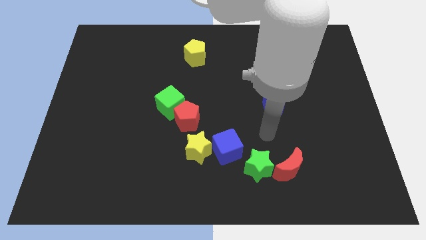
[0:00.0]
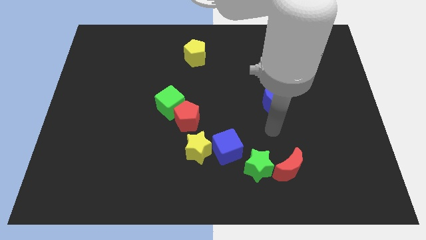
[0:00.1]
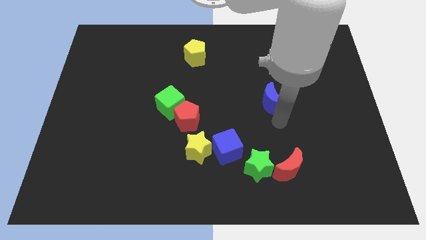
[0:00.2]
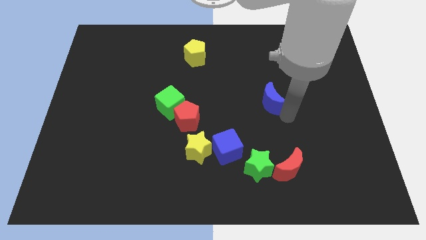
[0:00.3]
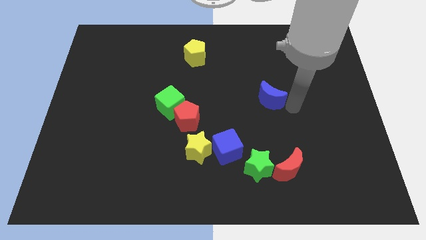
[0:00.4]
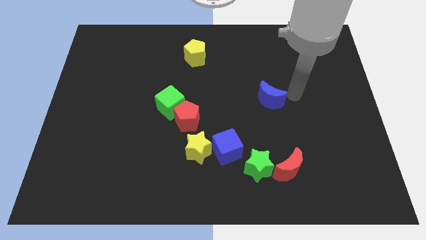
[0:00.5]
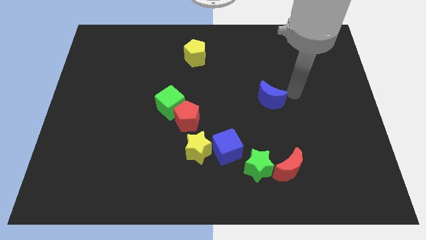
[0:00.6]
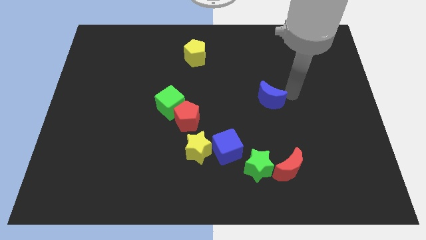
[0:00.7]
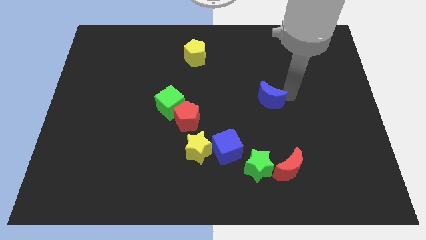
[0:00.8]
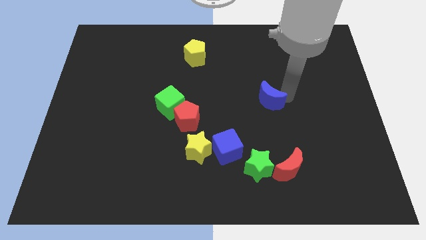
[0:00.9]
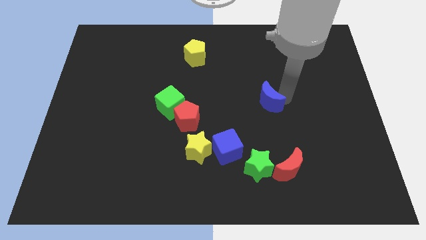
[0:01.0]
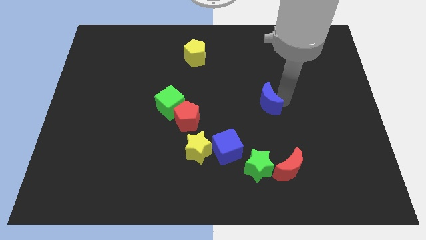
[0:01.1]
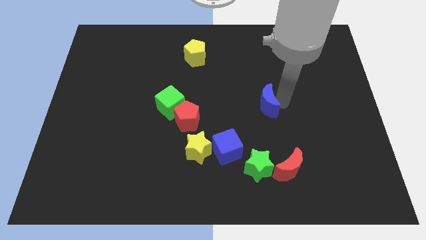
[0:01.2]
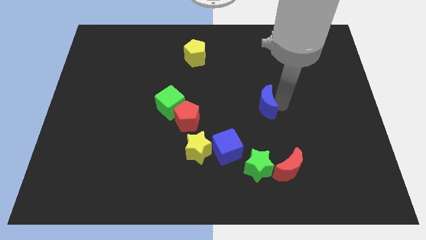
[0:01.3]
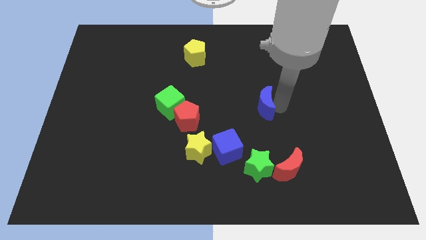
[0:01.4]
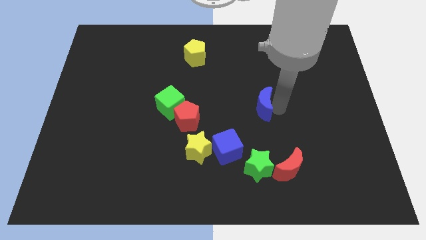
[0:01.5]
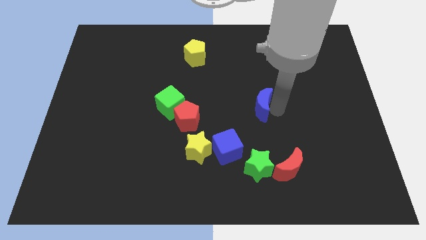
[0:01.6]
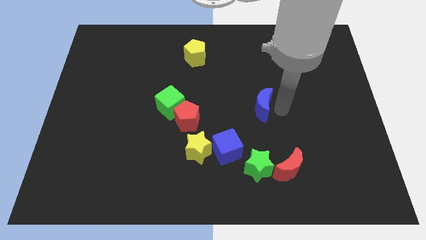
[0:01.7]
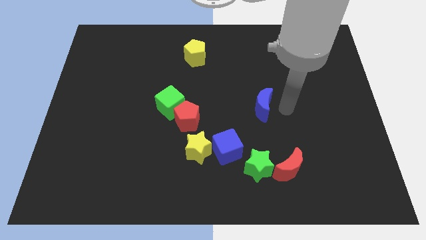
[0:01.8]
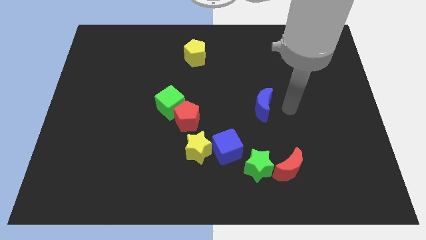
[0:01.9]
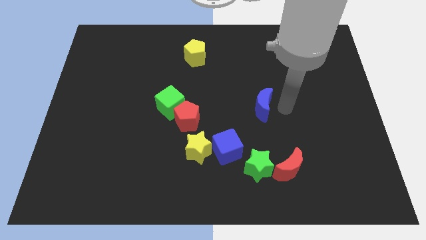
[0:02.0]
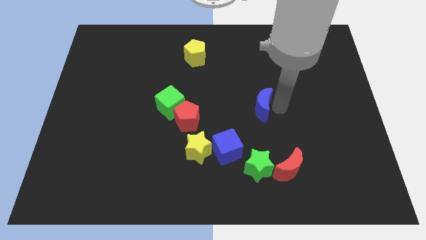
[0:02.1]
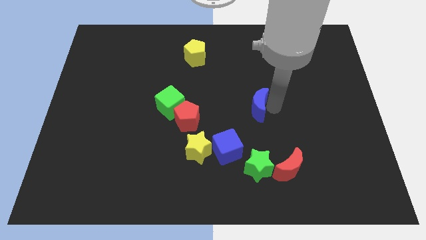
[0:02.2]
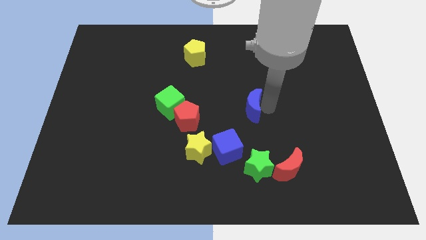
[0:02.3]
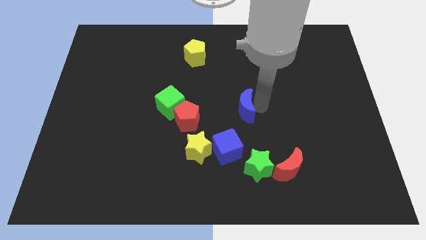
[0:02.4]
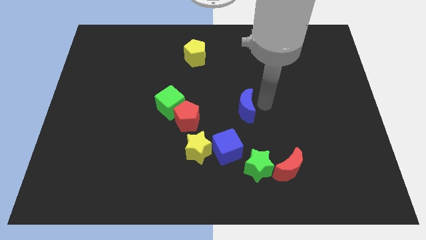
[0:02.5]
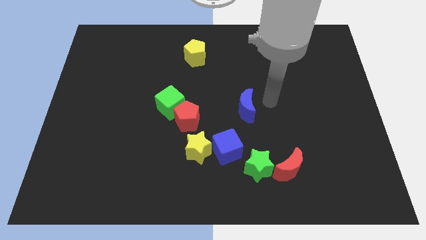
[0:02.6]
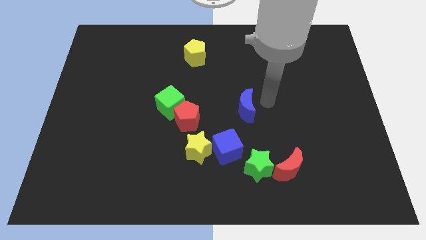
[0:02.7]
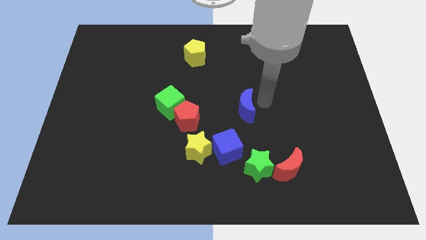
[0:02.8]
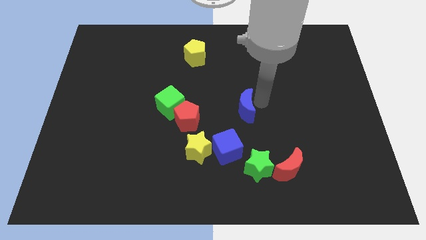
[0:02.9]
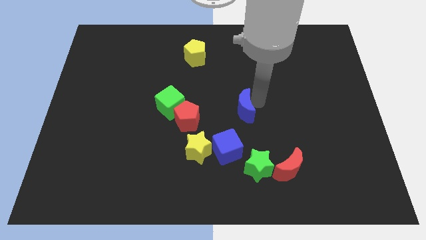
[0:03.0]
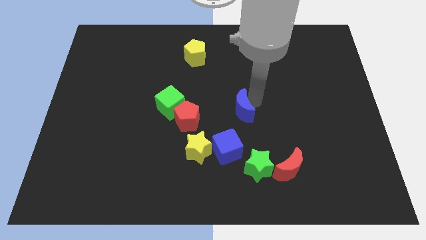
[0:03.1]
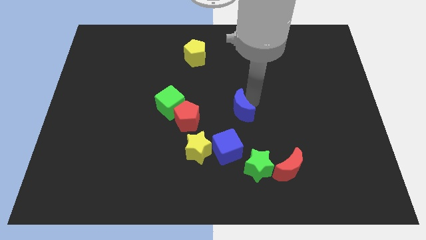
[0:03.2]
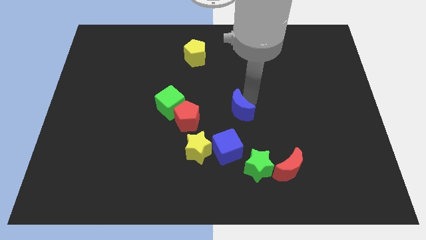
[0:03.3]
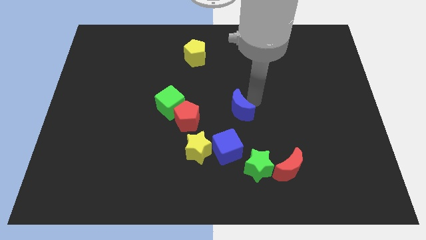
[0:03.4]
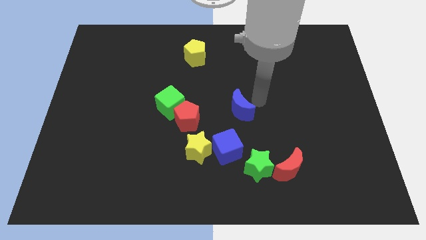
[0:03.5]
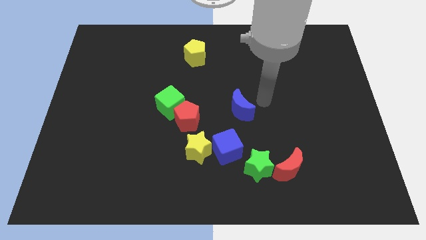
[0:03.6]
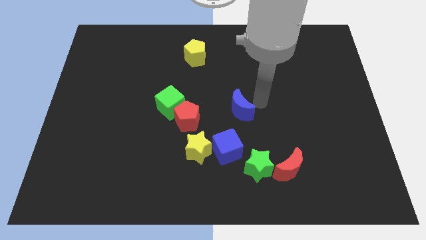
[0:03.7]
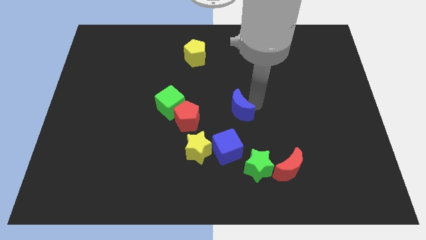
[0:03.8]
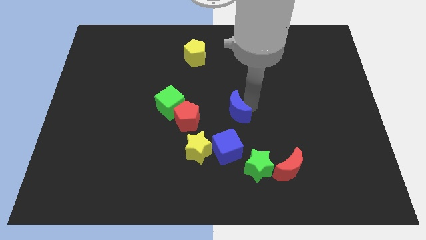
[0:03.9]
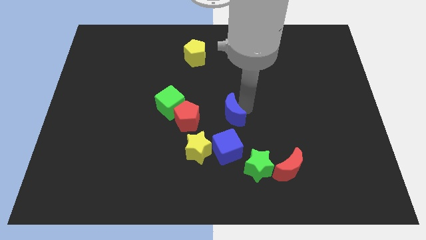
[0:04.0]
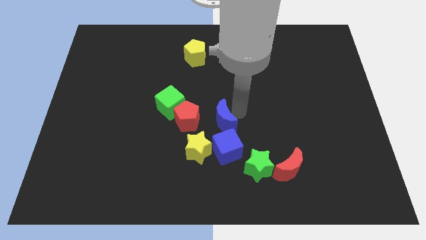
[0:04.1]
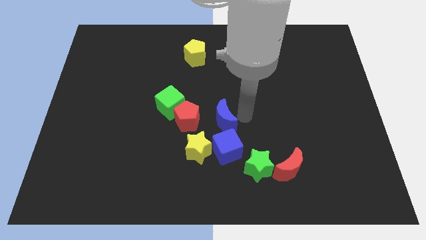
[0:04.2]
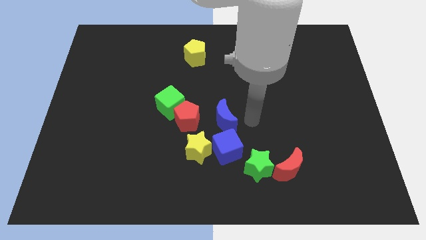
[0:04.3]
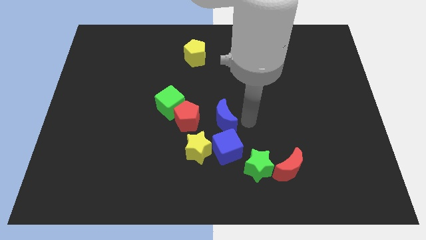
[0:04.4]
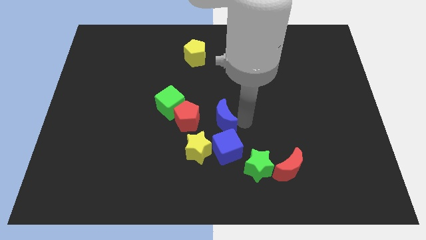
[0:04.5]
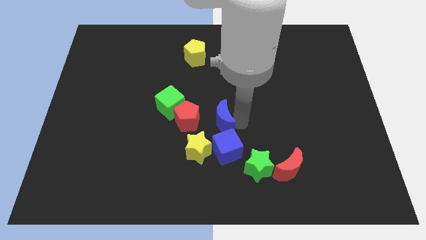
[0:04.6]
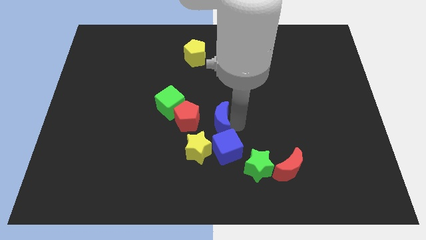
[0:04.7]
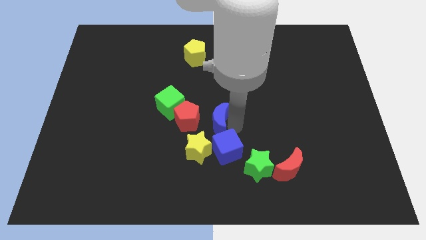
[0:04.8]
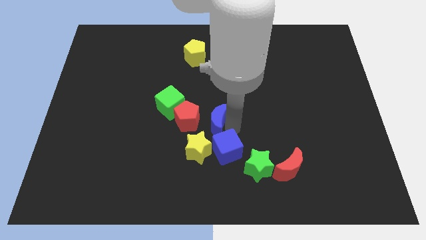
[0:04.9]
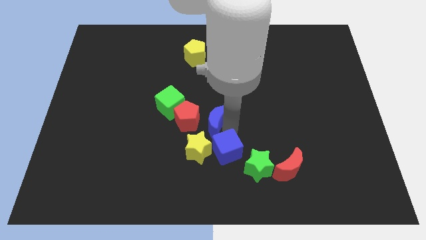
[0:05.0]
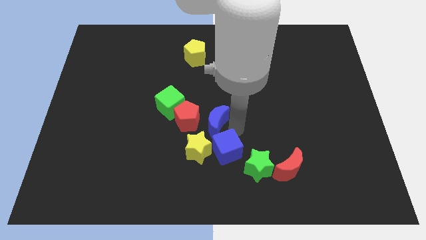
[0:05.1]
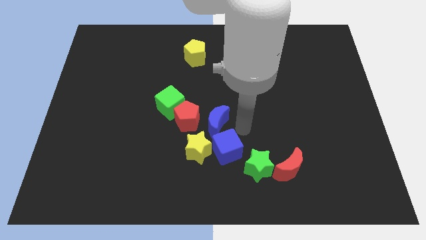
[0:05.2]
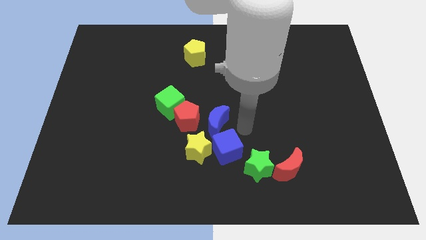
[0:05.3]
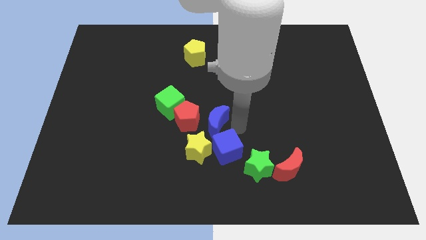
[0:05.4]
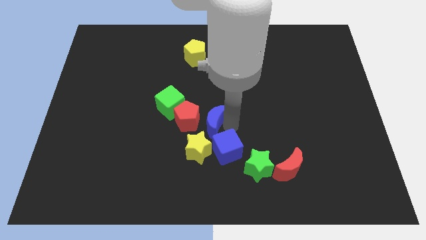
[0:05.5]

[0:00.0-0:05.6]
slide the blue moon to the red pentagon

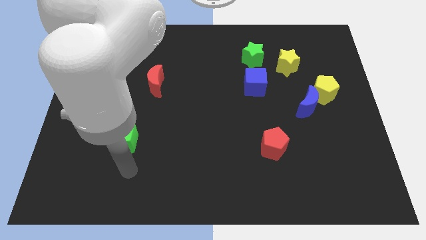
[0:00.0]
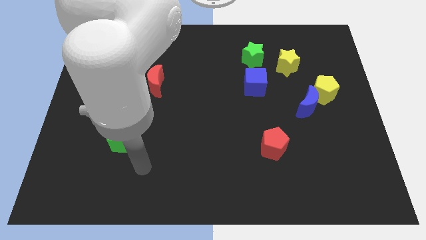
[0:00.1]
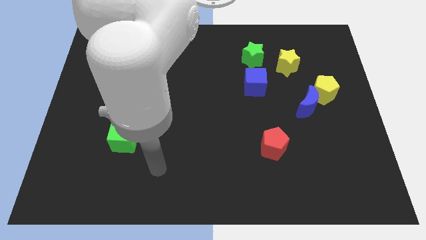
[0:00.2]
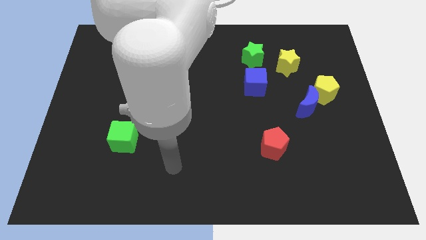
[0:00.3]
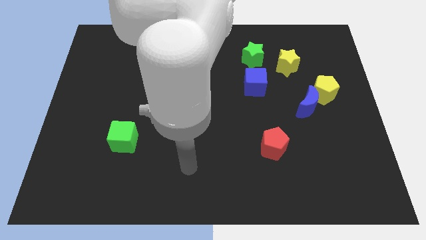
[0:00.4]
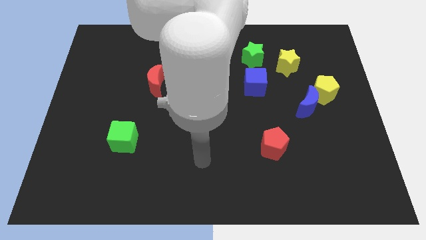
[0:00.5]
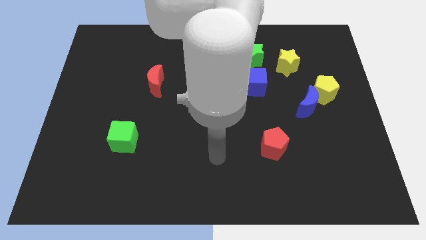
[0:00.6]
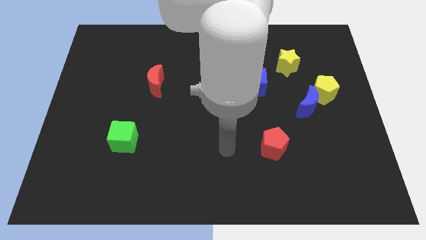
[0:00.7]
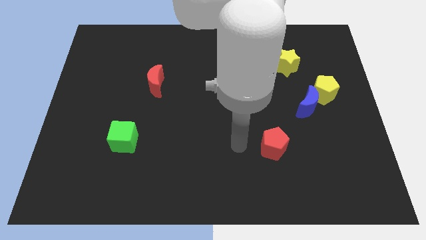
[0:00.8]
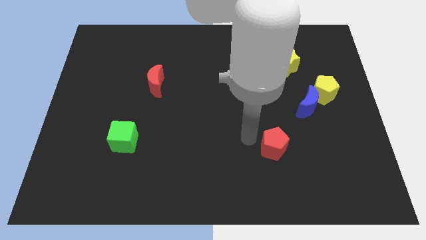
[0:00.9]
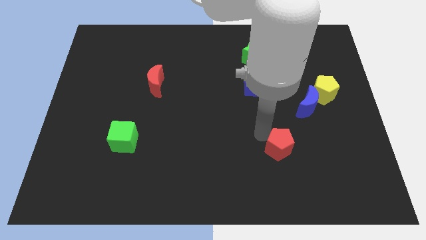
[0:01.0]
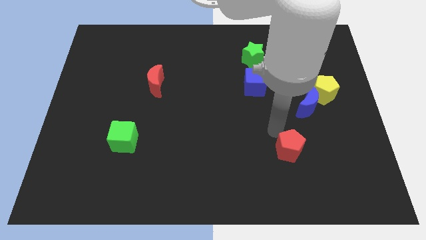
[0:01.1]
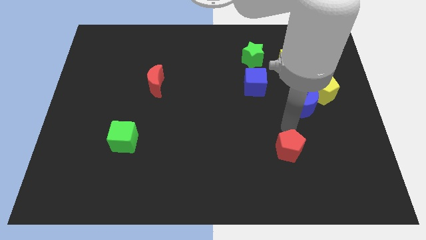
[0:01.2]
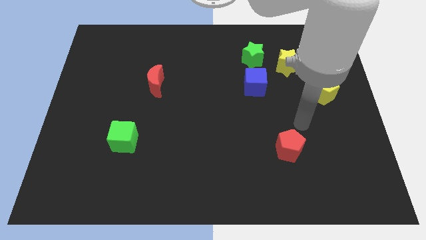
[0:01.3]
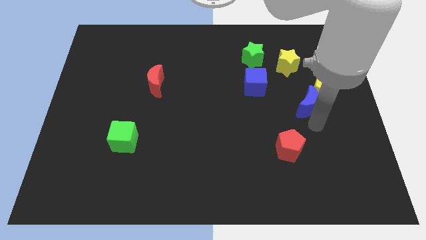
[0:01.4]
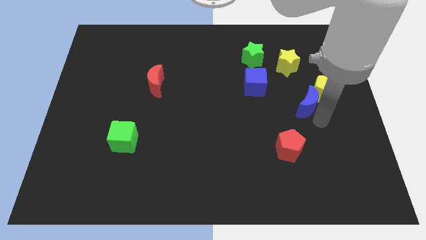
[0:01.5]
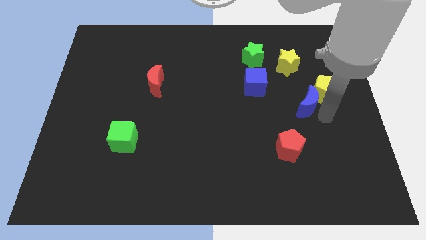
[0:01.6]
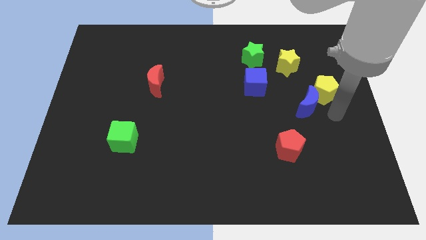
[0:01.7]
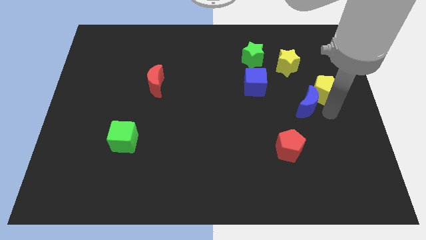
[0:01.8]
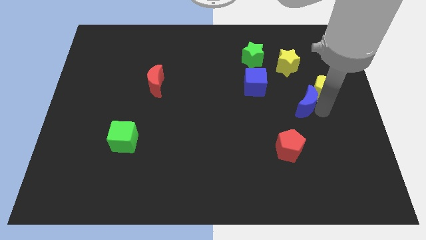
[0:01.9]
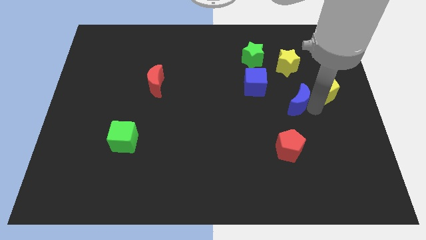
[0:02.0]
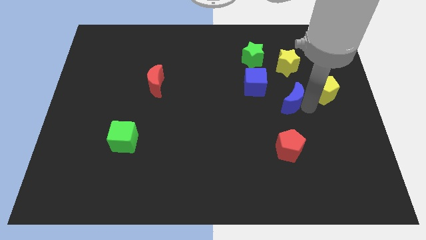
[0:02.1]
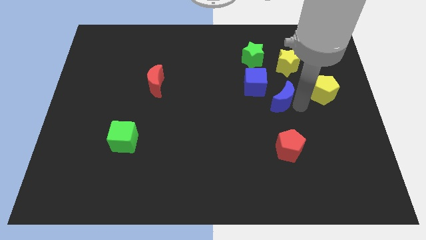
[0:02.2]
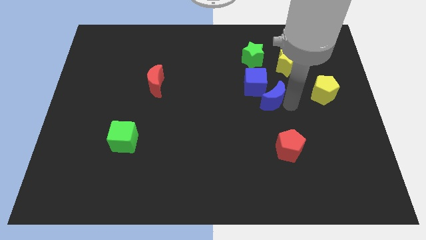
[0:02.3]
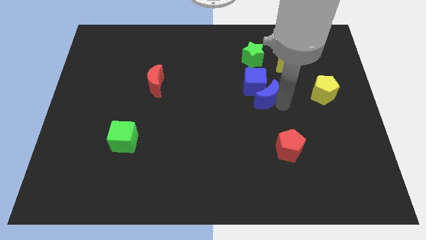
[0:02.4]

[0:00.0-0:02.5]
push the blue moon close to the blue cube
